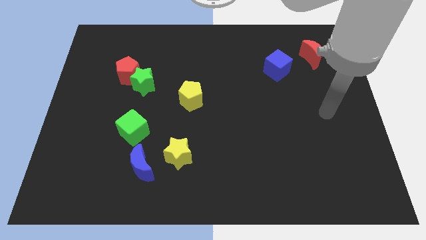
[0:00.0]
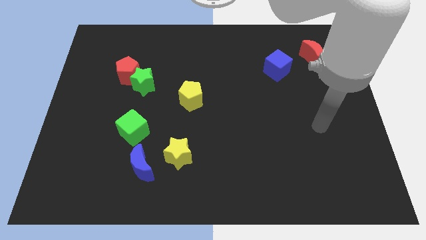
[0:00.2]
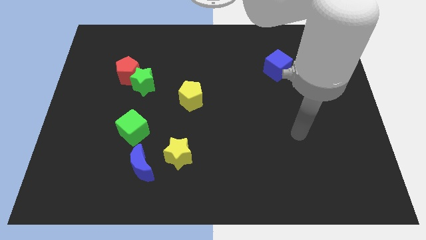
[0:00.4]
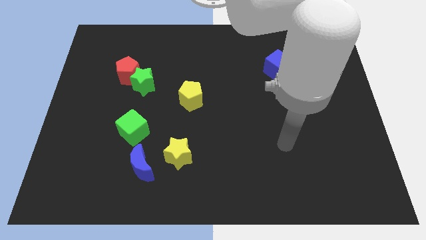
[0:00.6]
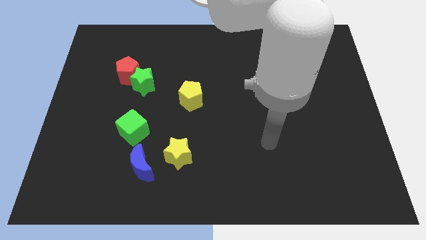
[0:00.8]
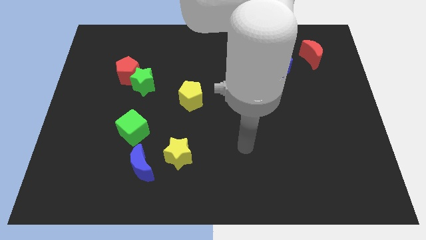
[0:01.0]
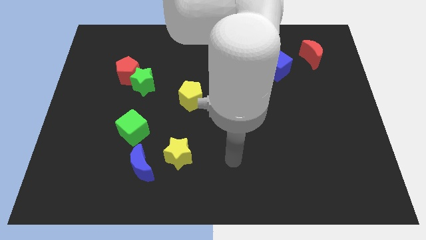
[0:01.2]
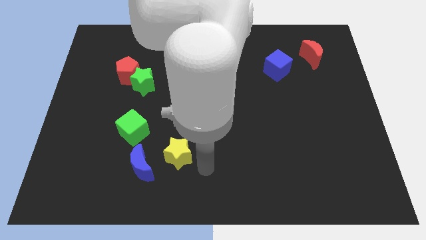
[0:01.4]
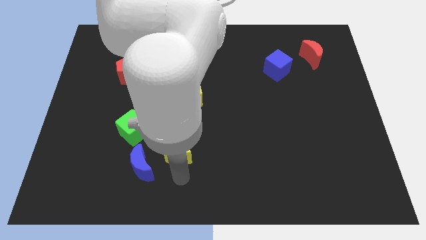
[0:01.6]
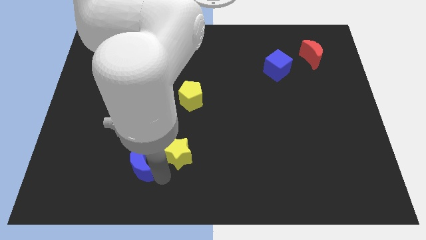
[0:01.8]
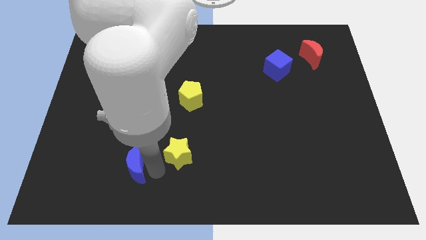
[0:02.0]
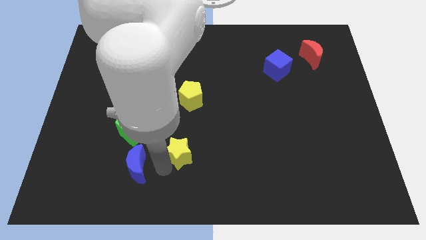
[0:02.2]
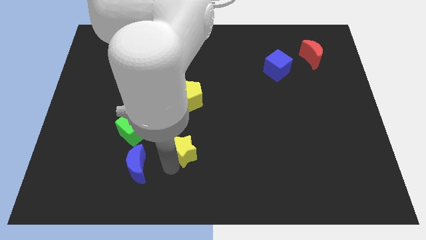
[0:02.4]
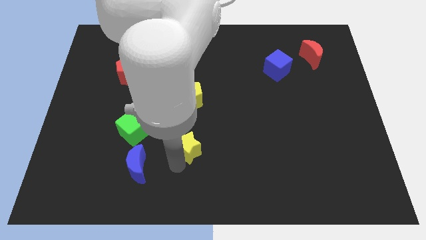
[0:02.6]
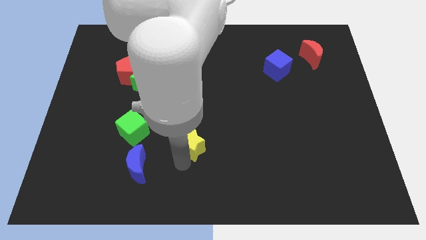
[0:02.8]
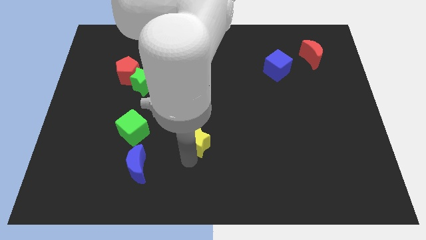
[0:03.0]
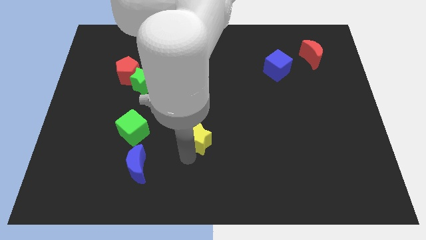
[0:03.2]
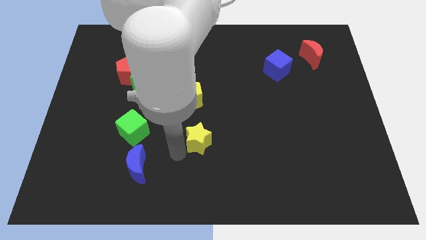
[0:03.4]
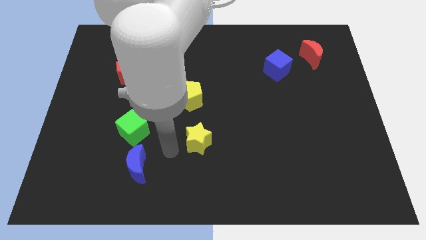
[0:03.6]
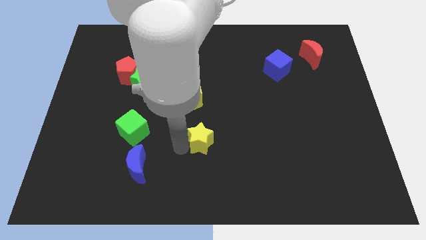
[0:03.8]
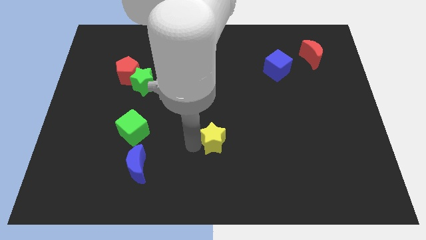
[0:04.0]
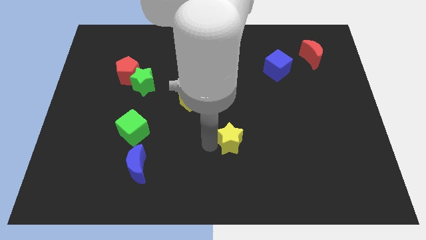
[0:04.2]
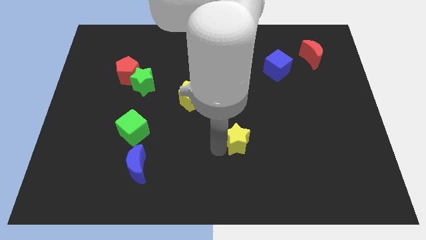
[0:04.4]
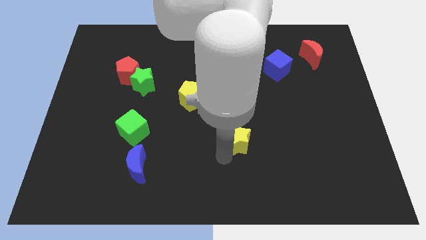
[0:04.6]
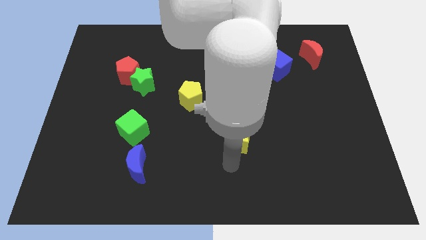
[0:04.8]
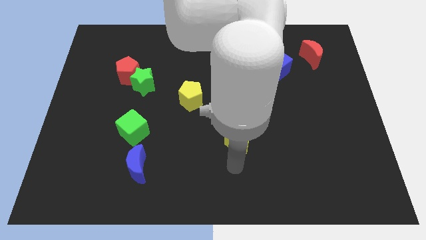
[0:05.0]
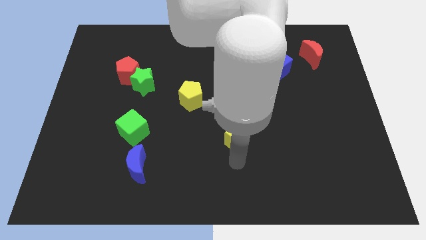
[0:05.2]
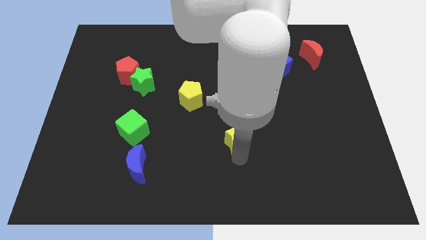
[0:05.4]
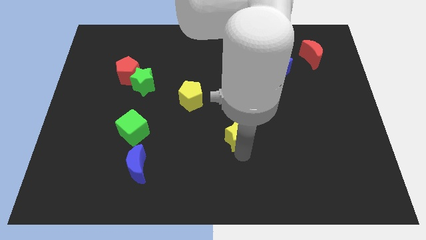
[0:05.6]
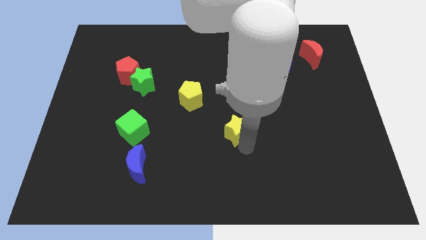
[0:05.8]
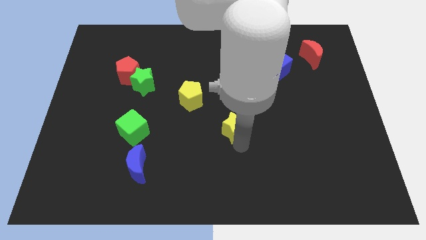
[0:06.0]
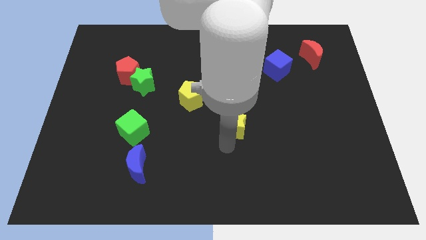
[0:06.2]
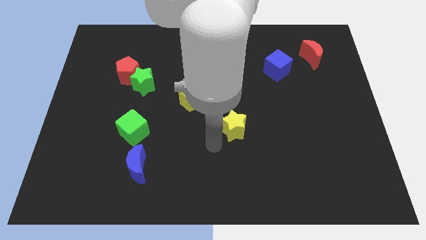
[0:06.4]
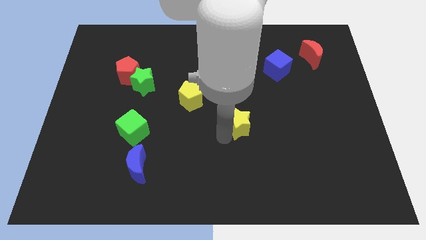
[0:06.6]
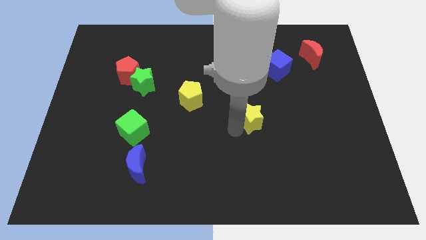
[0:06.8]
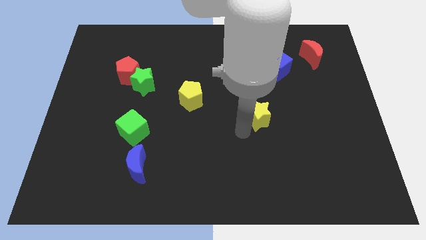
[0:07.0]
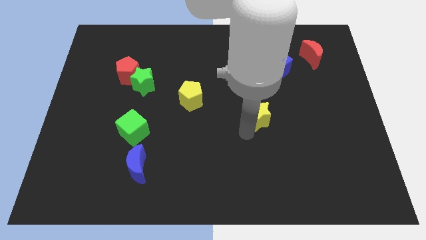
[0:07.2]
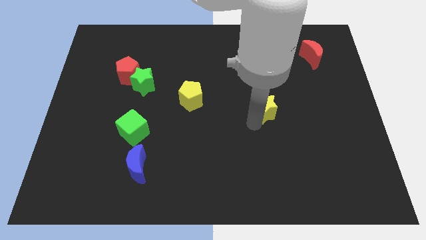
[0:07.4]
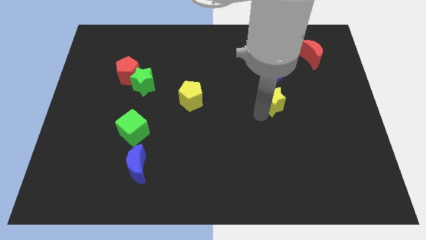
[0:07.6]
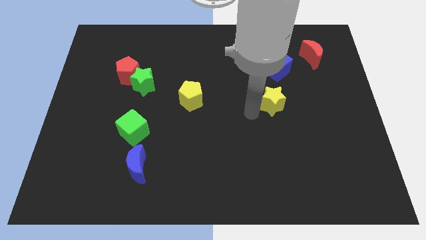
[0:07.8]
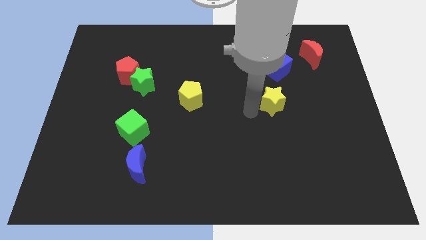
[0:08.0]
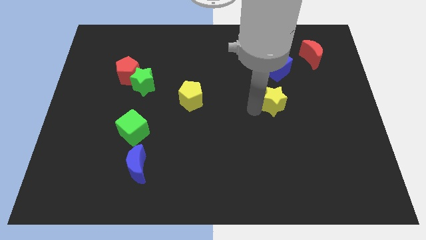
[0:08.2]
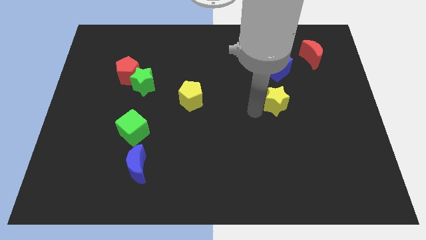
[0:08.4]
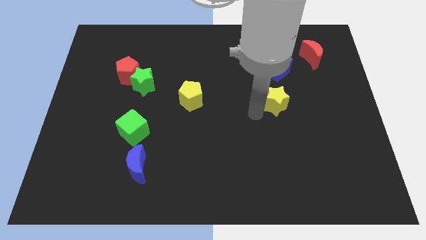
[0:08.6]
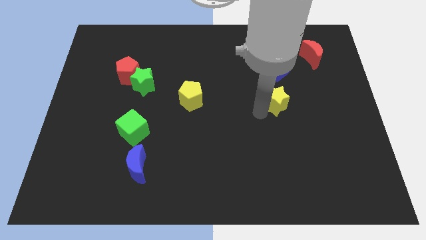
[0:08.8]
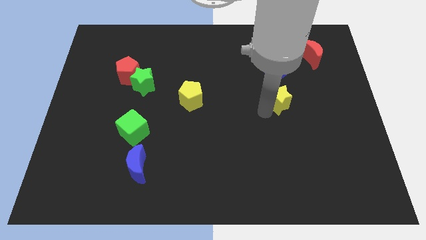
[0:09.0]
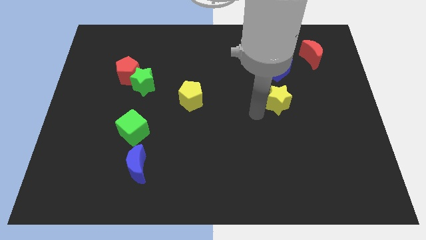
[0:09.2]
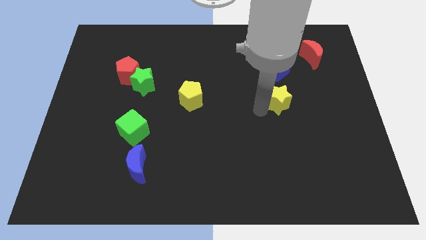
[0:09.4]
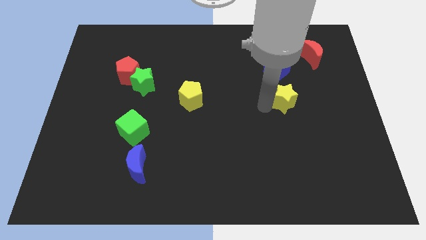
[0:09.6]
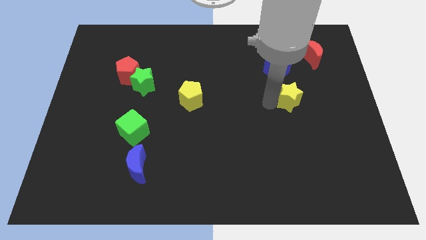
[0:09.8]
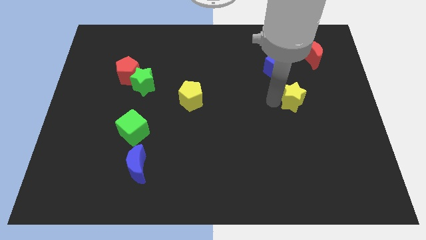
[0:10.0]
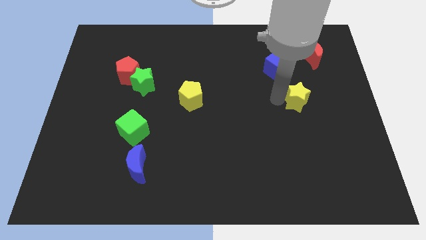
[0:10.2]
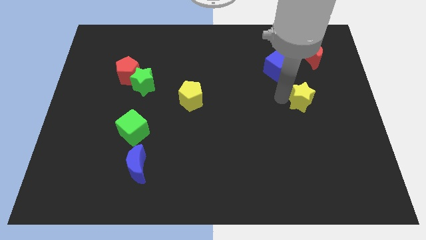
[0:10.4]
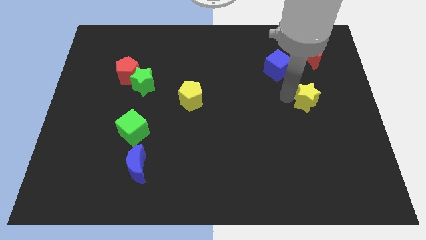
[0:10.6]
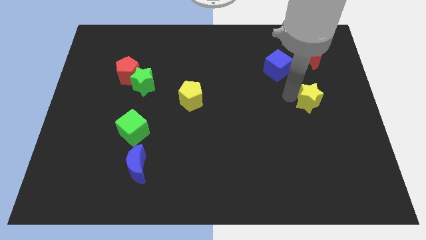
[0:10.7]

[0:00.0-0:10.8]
move the yellow star to the bottom of the red moon
